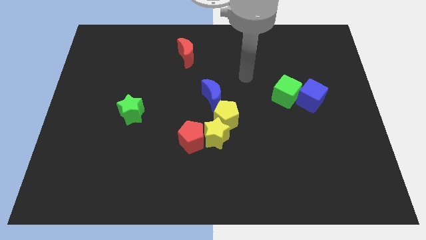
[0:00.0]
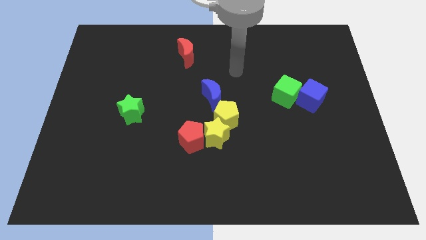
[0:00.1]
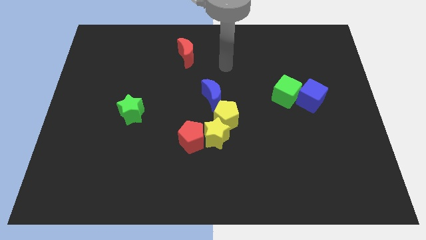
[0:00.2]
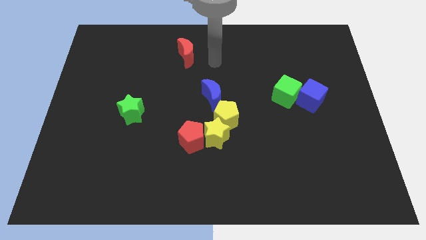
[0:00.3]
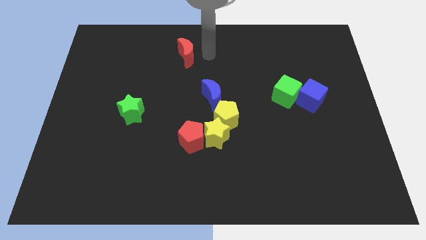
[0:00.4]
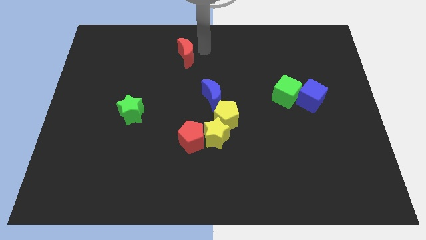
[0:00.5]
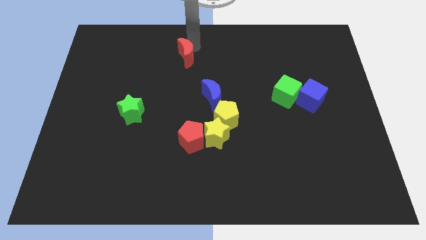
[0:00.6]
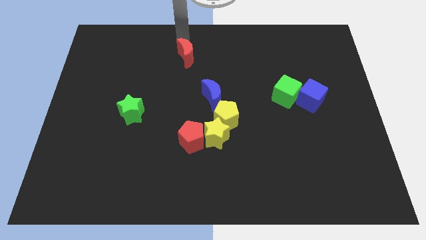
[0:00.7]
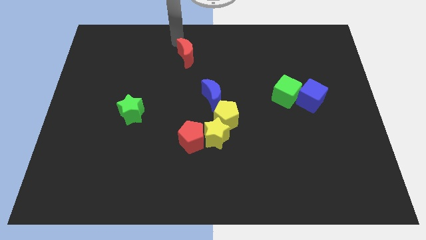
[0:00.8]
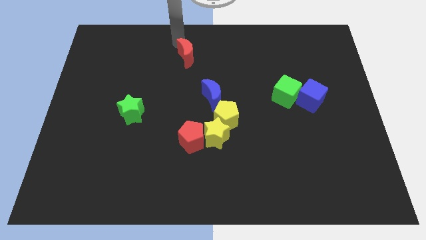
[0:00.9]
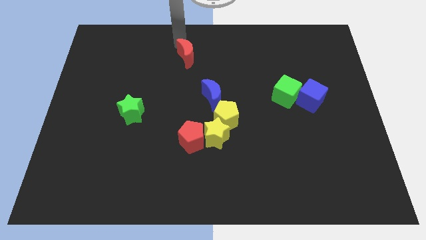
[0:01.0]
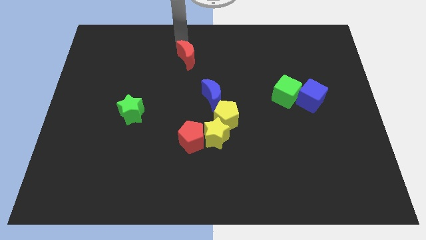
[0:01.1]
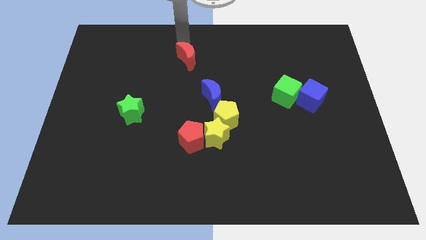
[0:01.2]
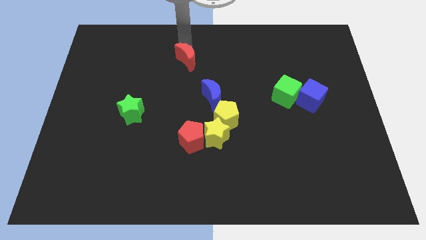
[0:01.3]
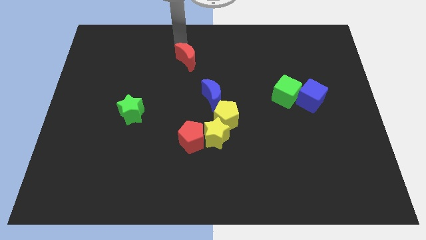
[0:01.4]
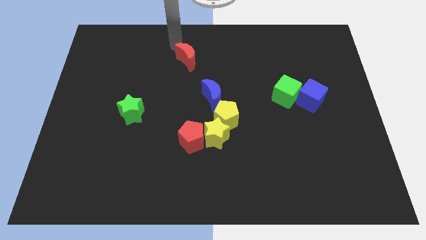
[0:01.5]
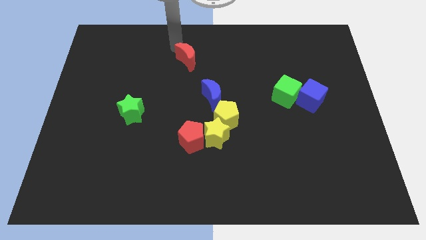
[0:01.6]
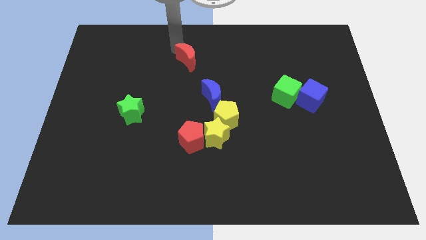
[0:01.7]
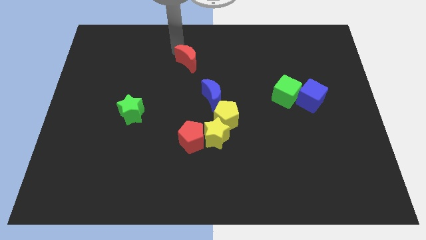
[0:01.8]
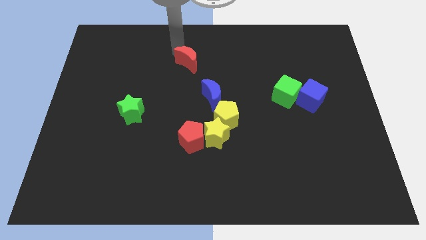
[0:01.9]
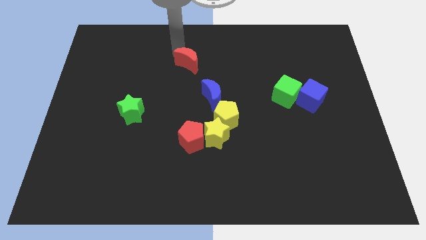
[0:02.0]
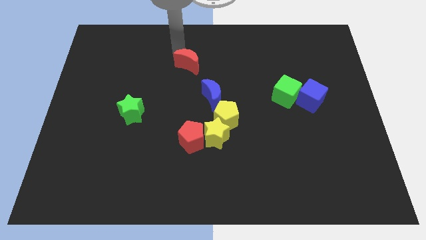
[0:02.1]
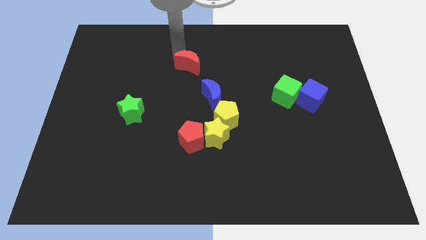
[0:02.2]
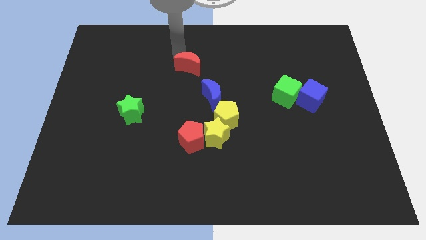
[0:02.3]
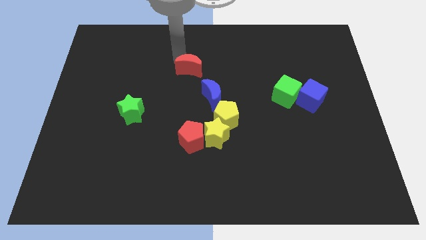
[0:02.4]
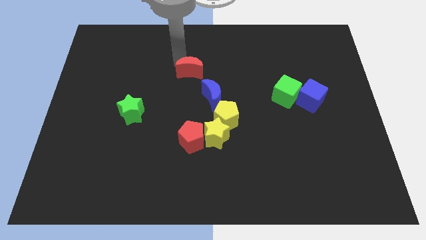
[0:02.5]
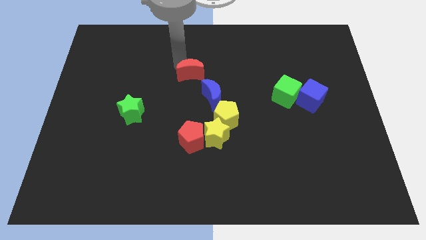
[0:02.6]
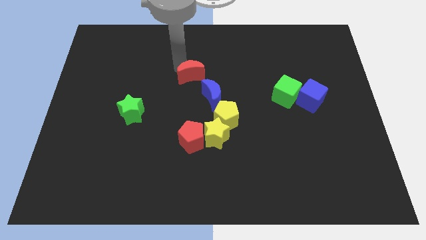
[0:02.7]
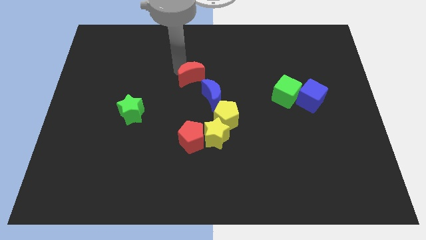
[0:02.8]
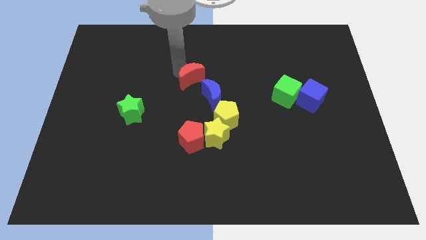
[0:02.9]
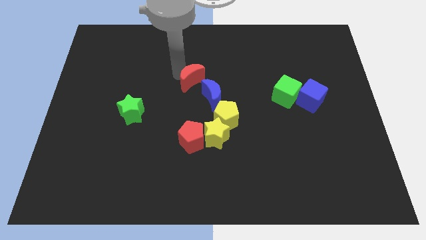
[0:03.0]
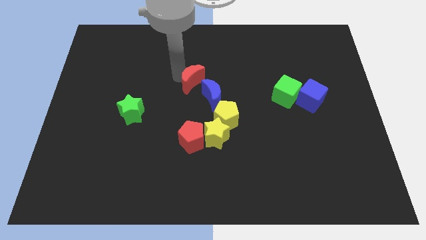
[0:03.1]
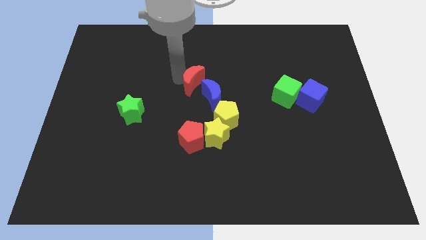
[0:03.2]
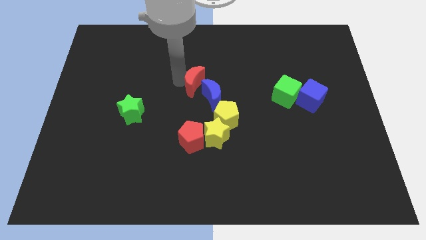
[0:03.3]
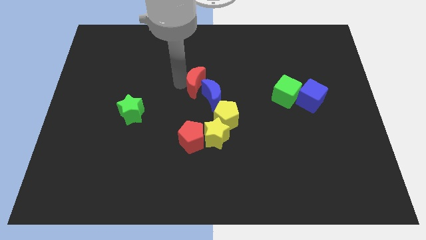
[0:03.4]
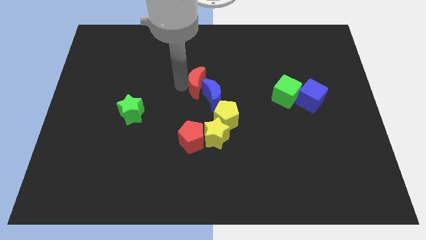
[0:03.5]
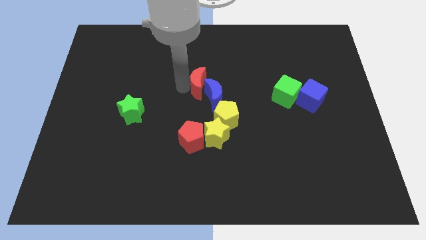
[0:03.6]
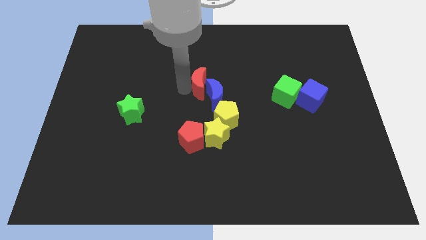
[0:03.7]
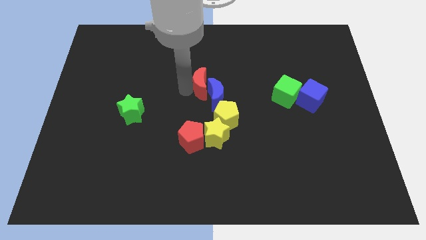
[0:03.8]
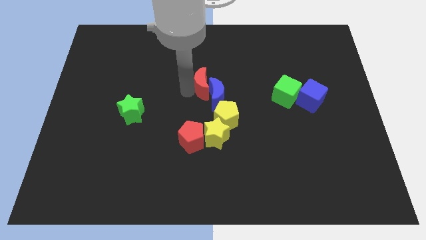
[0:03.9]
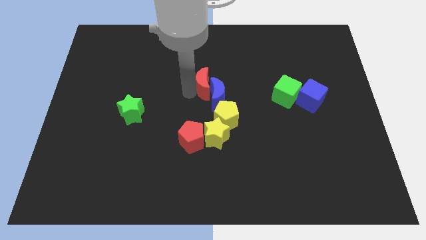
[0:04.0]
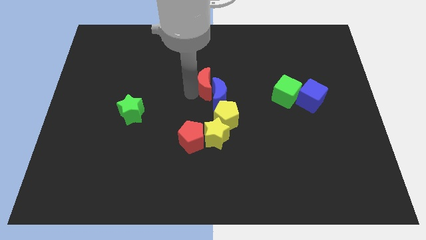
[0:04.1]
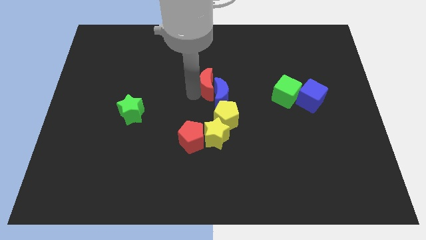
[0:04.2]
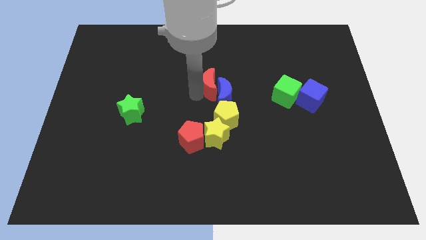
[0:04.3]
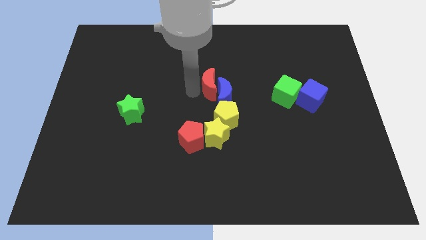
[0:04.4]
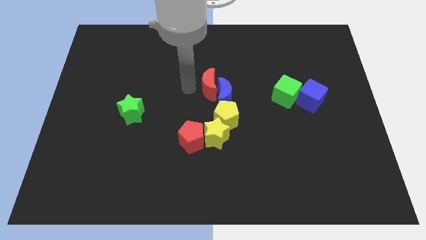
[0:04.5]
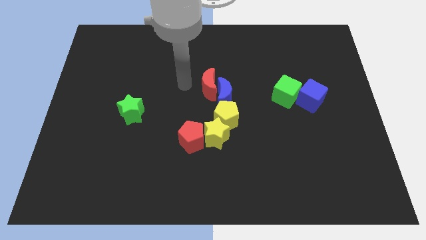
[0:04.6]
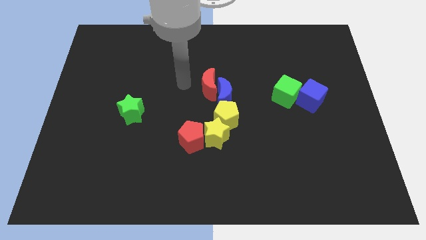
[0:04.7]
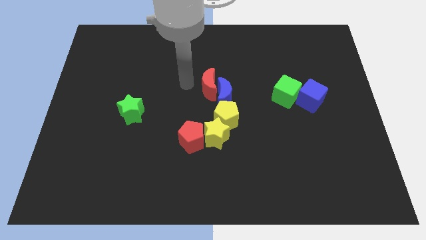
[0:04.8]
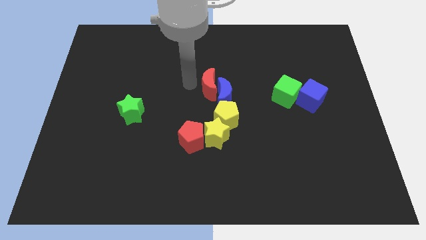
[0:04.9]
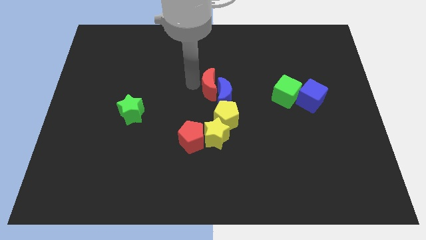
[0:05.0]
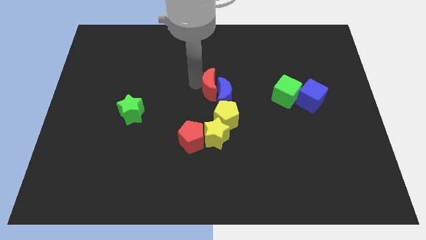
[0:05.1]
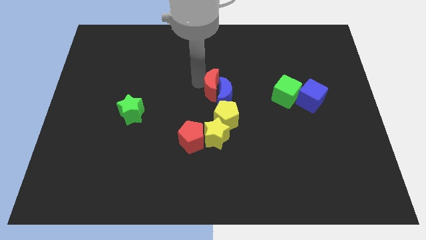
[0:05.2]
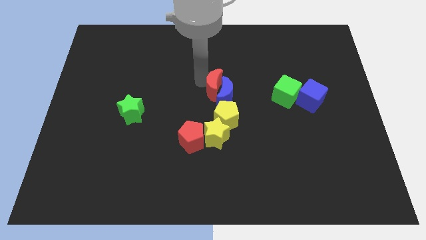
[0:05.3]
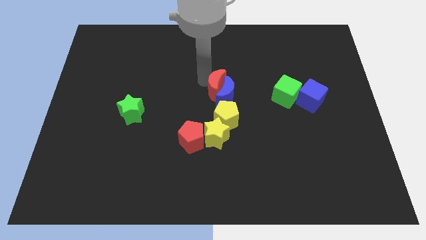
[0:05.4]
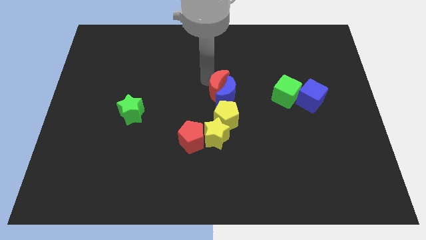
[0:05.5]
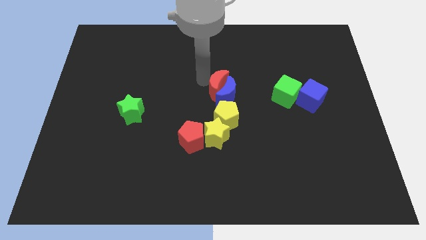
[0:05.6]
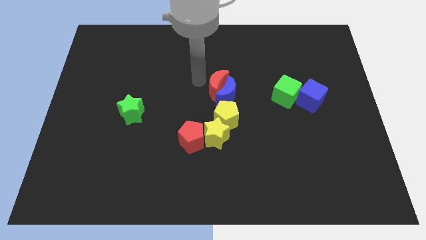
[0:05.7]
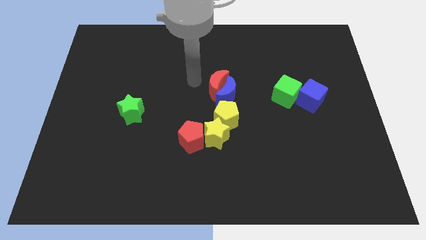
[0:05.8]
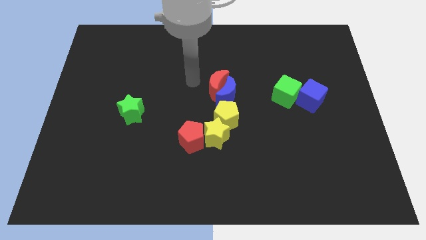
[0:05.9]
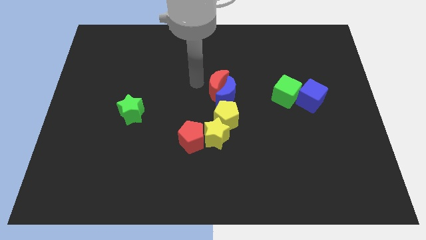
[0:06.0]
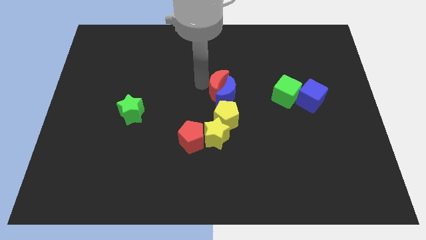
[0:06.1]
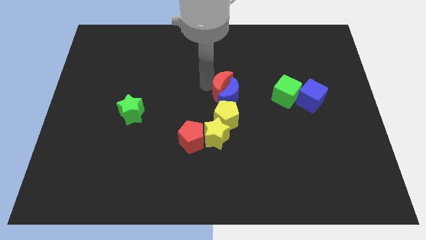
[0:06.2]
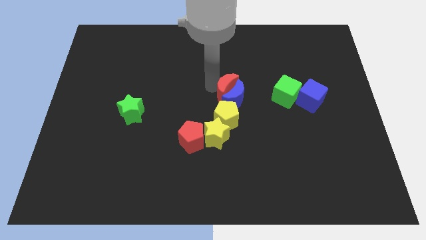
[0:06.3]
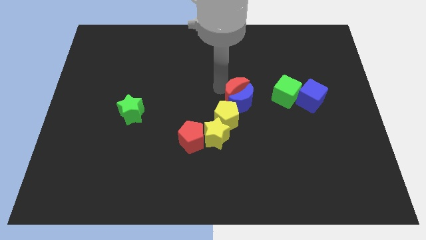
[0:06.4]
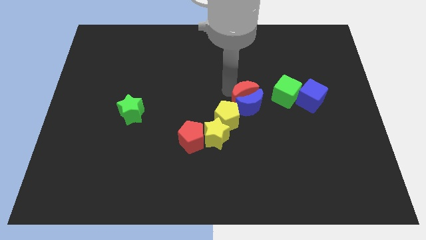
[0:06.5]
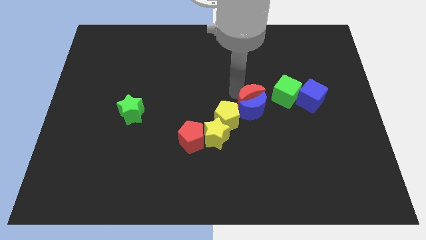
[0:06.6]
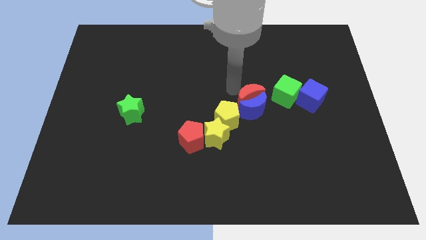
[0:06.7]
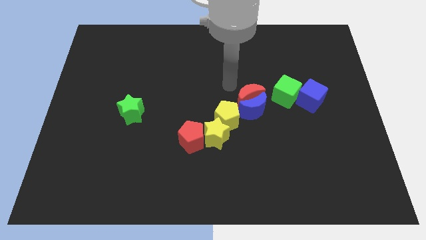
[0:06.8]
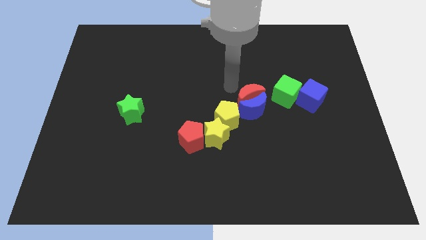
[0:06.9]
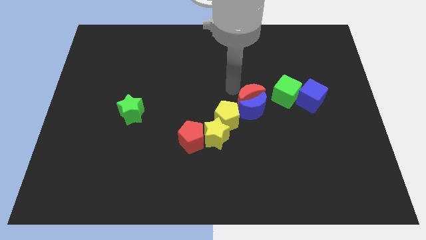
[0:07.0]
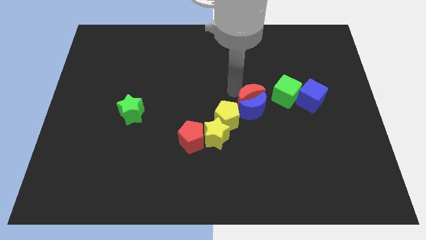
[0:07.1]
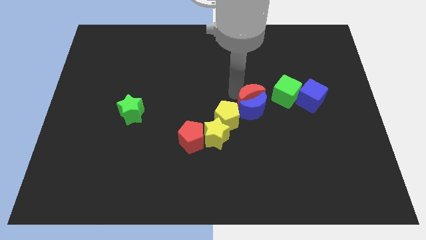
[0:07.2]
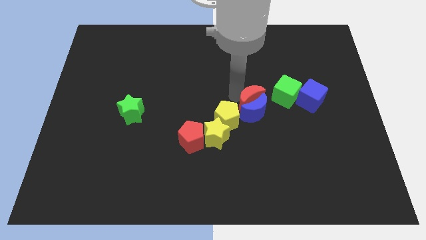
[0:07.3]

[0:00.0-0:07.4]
slide the red moon diagonally down and to the left of the green cube

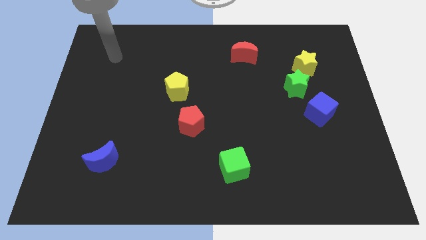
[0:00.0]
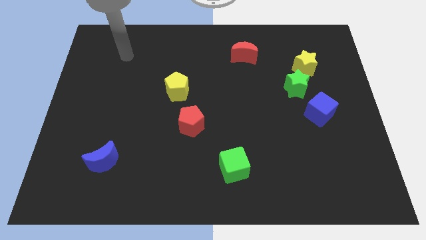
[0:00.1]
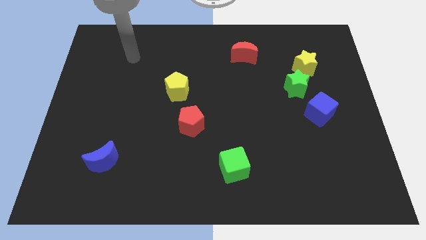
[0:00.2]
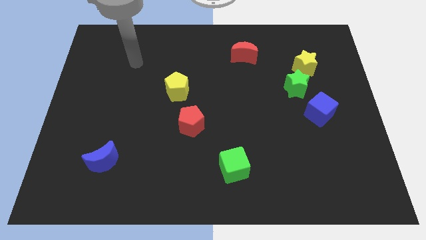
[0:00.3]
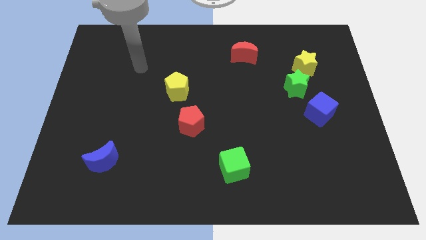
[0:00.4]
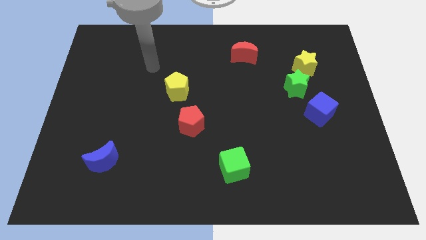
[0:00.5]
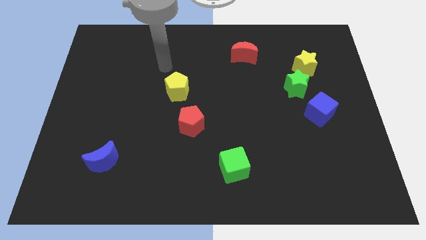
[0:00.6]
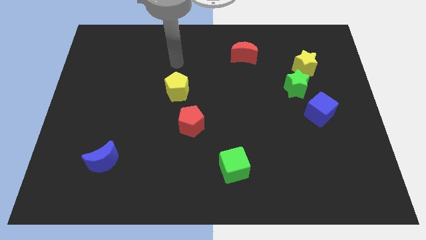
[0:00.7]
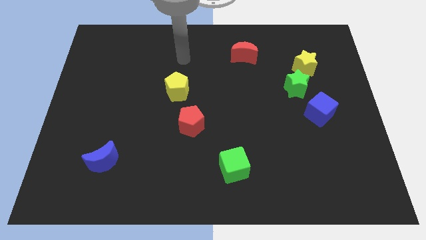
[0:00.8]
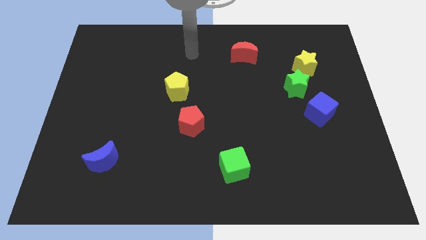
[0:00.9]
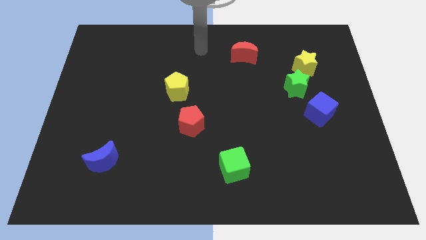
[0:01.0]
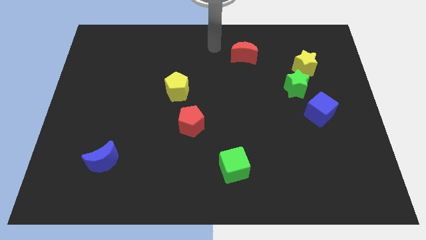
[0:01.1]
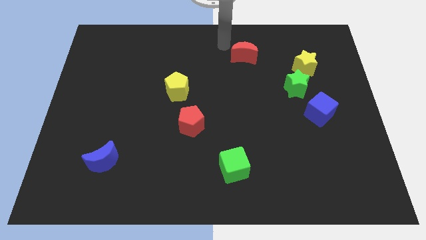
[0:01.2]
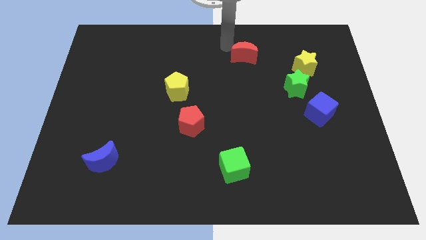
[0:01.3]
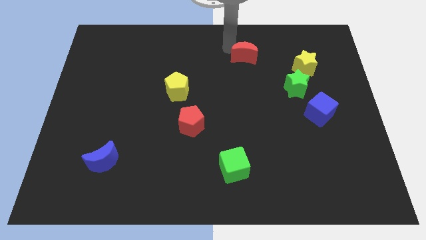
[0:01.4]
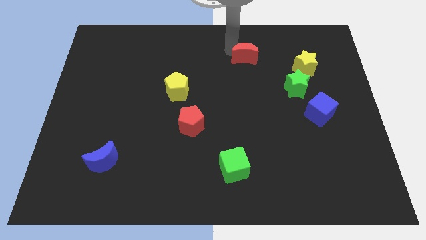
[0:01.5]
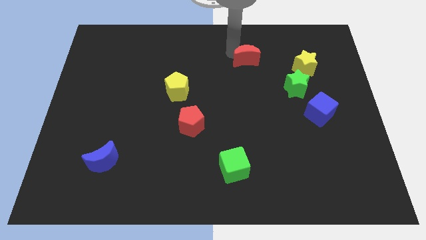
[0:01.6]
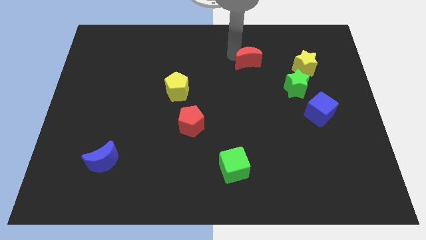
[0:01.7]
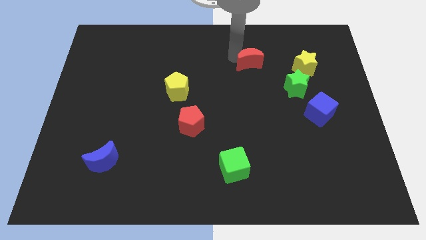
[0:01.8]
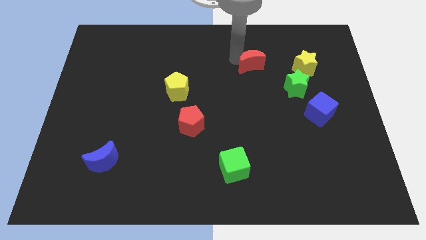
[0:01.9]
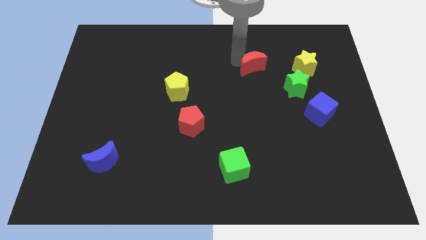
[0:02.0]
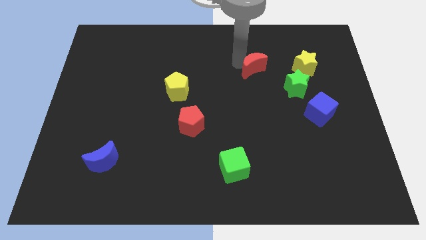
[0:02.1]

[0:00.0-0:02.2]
put the red moon to the top left of the green star
